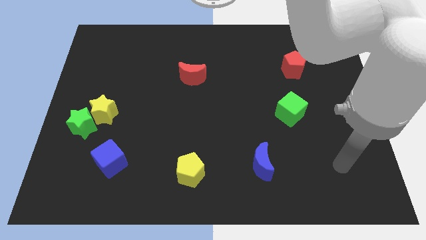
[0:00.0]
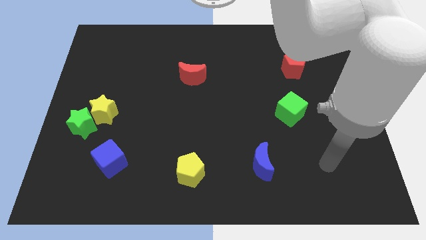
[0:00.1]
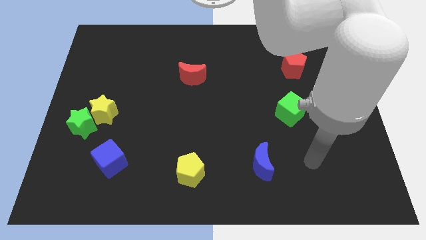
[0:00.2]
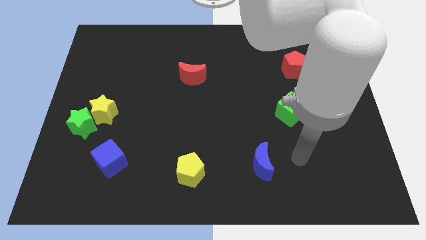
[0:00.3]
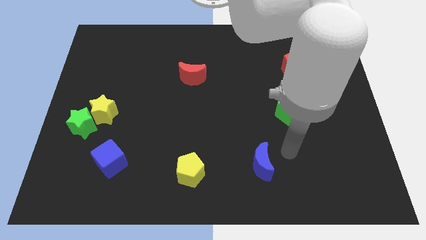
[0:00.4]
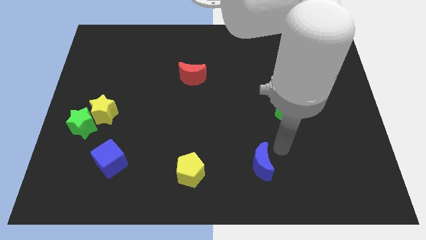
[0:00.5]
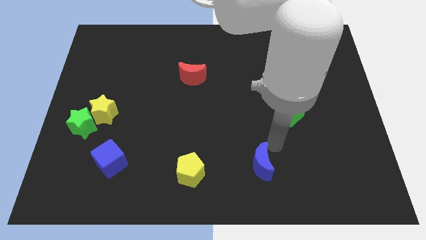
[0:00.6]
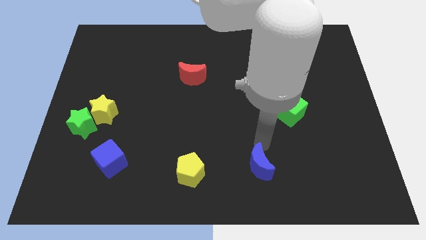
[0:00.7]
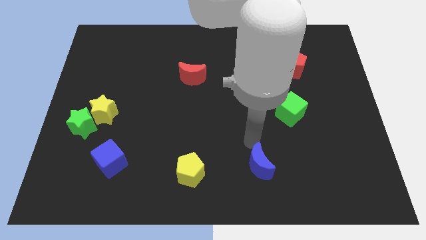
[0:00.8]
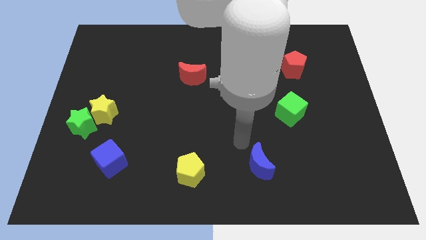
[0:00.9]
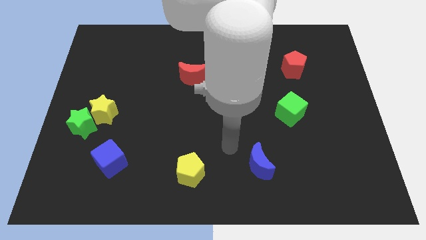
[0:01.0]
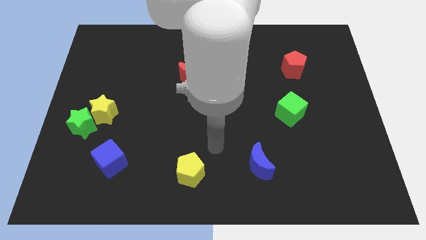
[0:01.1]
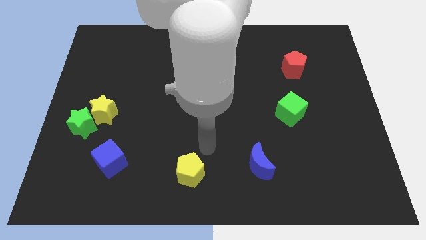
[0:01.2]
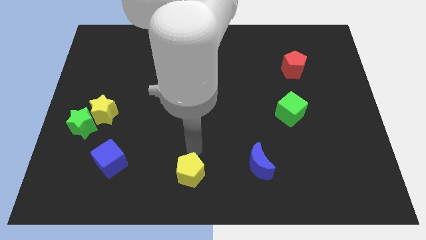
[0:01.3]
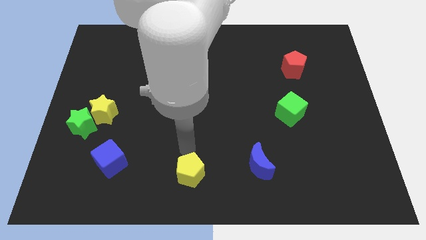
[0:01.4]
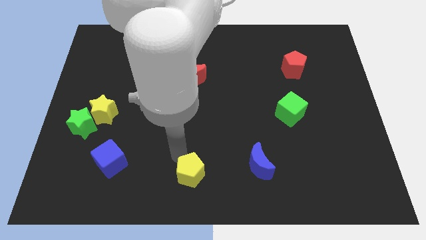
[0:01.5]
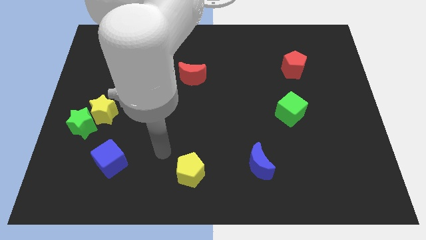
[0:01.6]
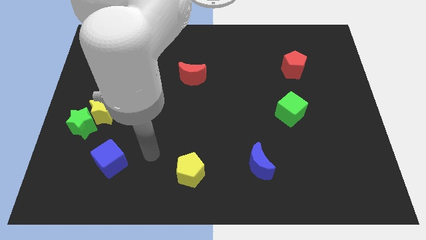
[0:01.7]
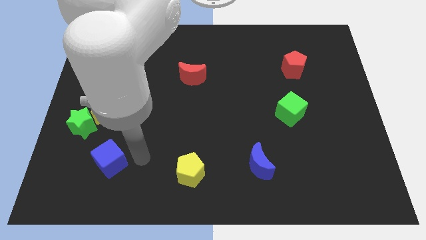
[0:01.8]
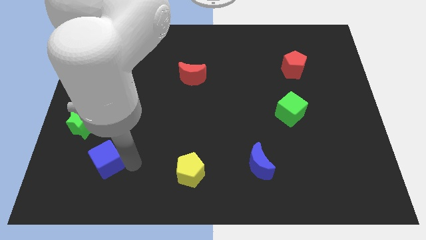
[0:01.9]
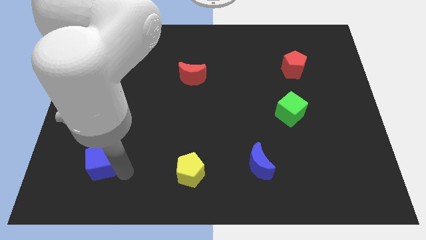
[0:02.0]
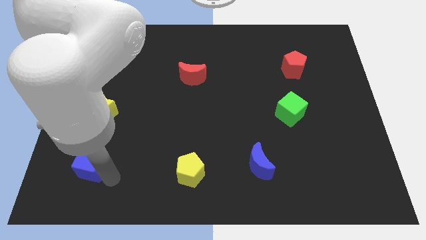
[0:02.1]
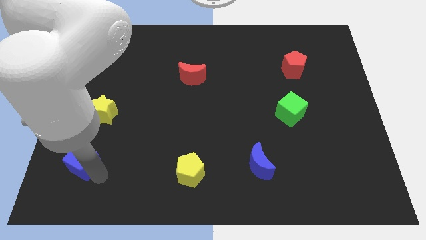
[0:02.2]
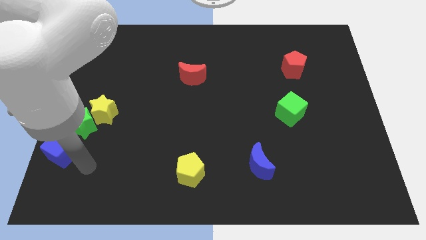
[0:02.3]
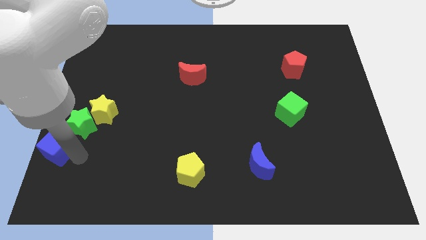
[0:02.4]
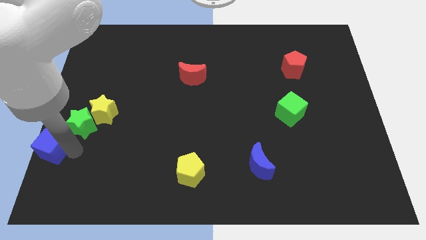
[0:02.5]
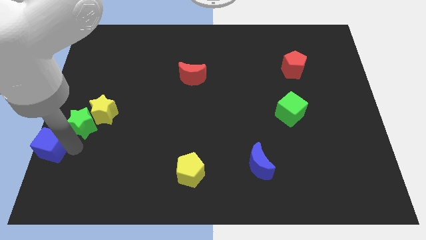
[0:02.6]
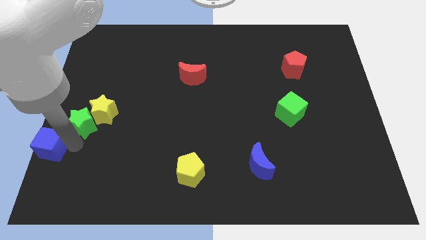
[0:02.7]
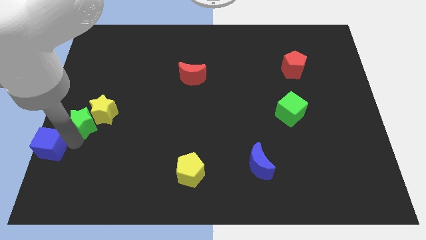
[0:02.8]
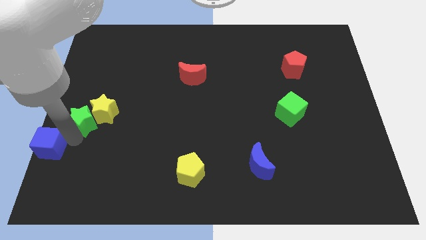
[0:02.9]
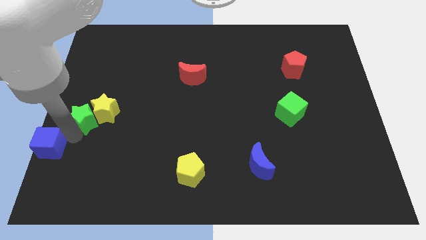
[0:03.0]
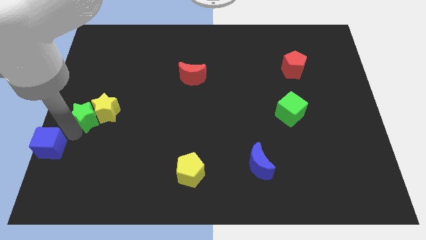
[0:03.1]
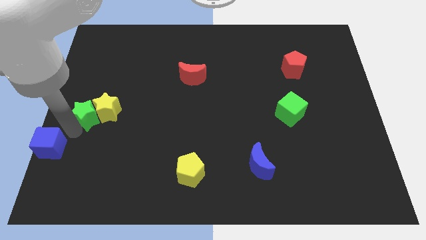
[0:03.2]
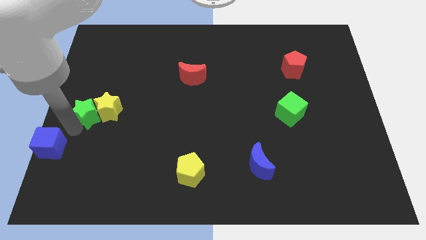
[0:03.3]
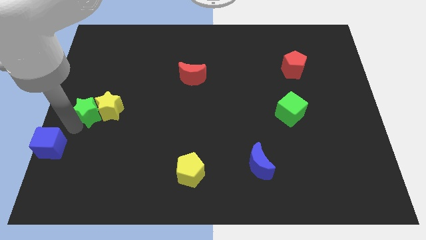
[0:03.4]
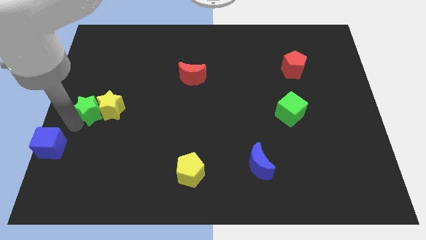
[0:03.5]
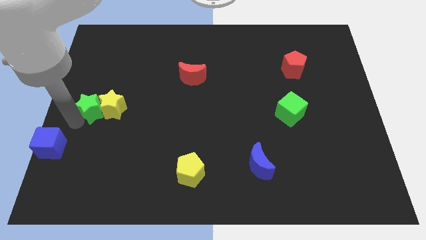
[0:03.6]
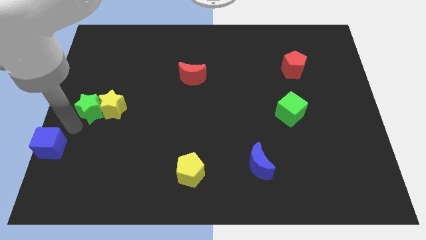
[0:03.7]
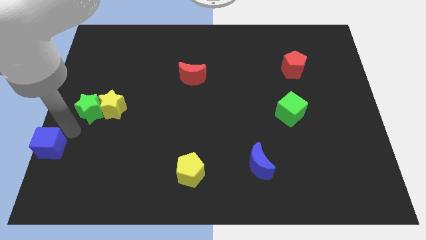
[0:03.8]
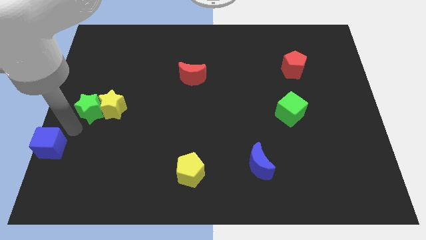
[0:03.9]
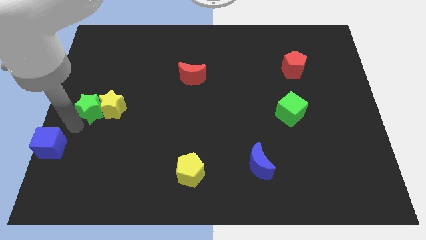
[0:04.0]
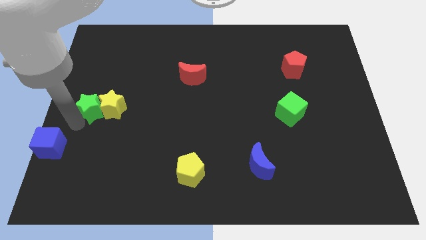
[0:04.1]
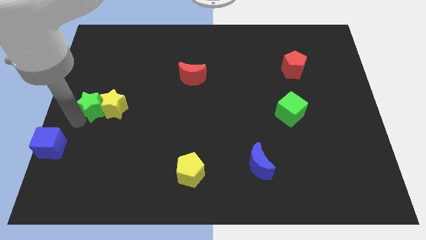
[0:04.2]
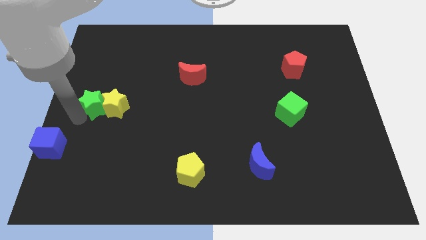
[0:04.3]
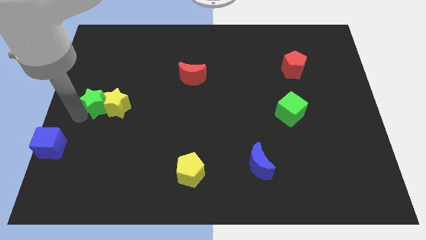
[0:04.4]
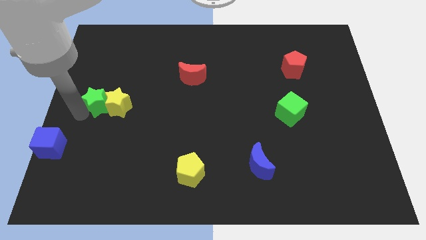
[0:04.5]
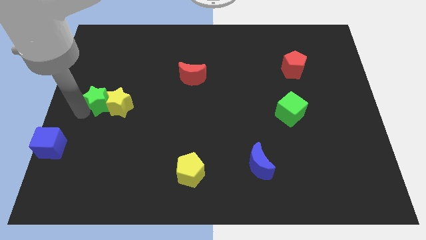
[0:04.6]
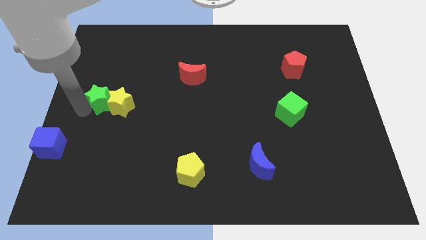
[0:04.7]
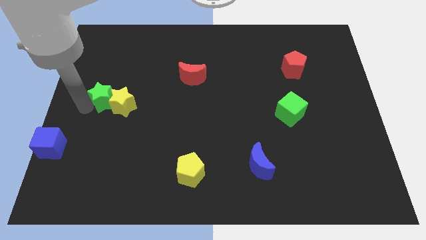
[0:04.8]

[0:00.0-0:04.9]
move the green star slightly up and then right

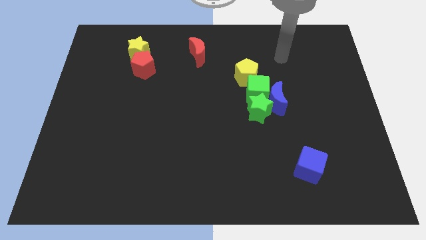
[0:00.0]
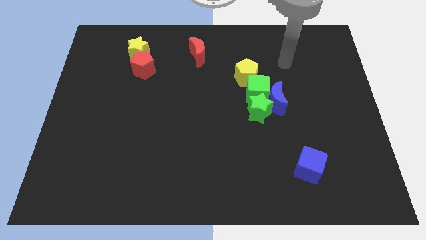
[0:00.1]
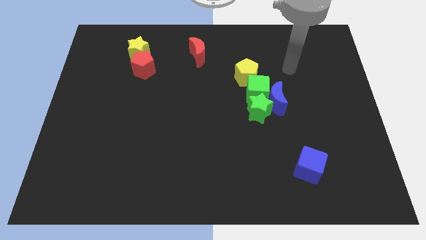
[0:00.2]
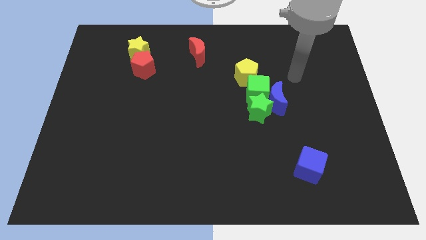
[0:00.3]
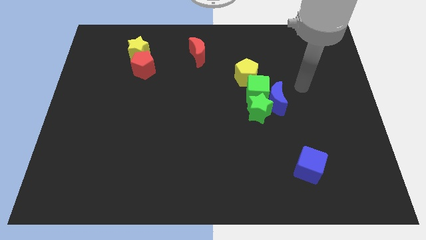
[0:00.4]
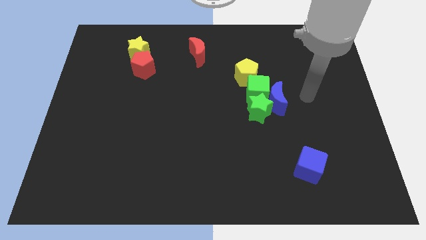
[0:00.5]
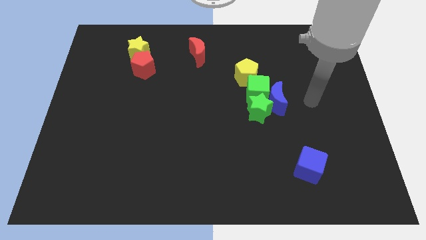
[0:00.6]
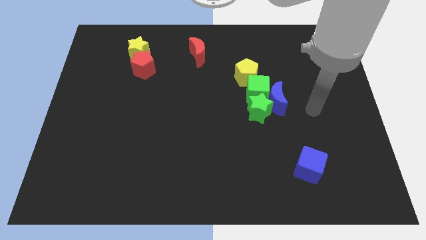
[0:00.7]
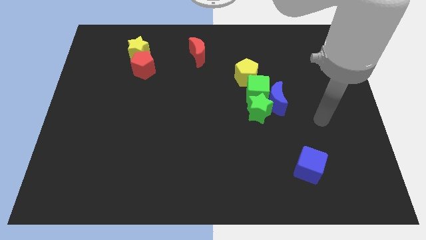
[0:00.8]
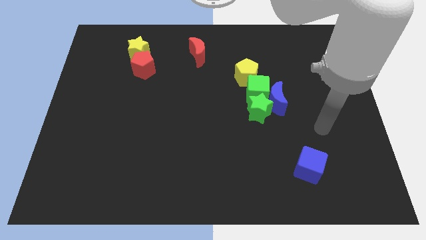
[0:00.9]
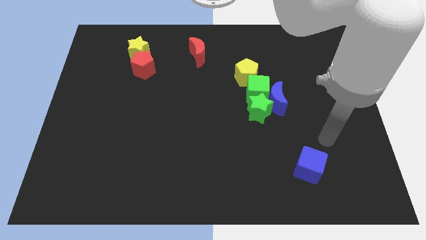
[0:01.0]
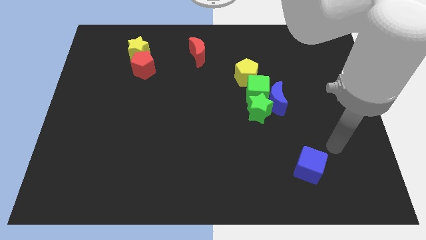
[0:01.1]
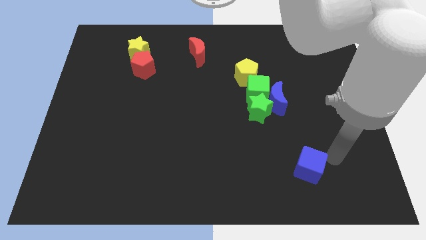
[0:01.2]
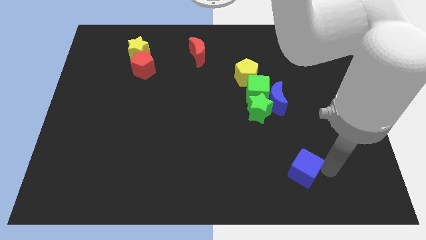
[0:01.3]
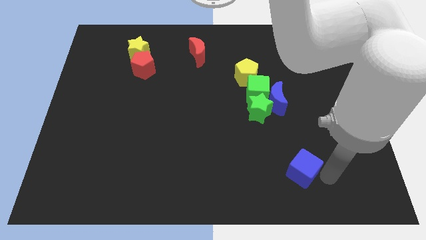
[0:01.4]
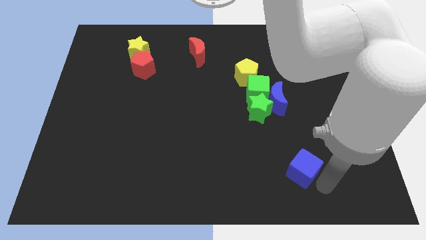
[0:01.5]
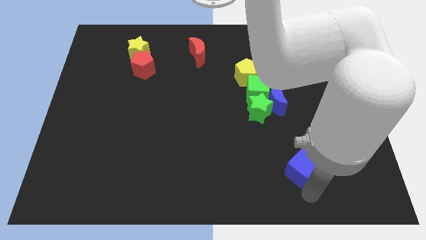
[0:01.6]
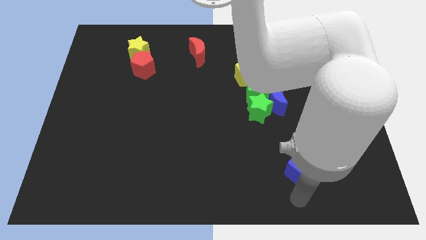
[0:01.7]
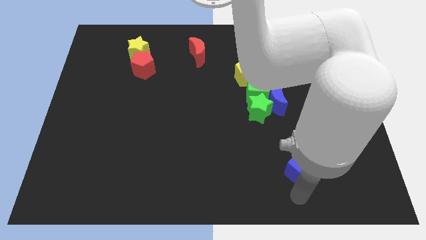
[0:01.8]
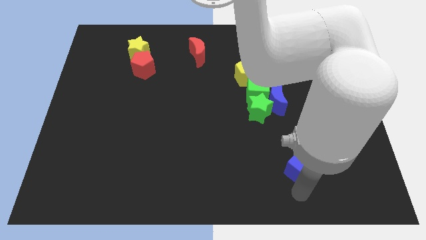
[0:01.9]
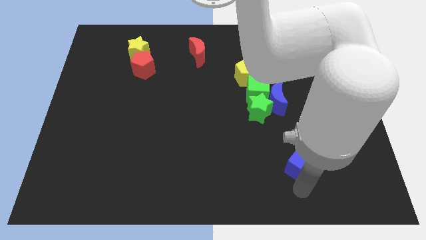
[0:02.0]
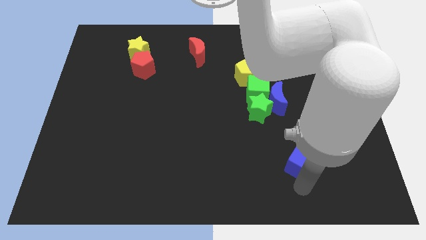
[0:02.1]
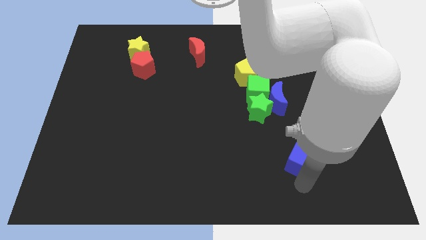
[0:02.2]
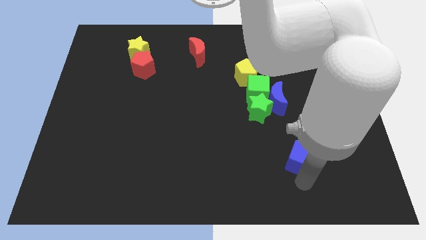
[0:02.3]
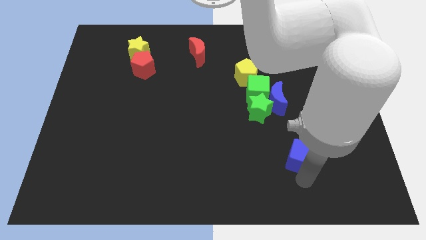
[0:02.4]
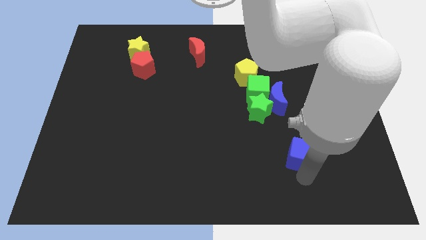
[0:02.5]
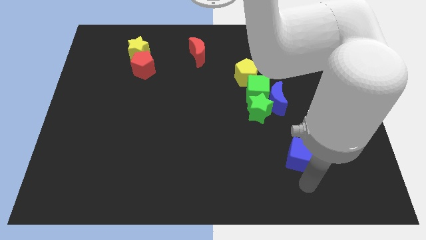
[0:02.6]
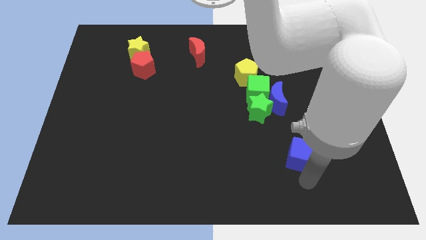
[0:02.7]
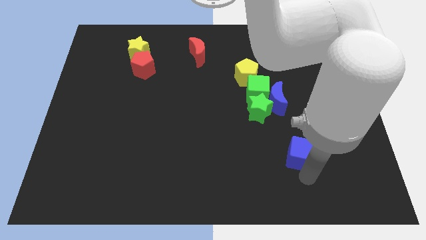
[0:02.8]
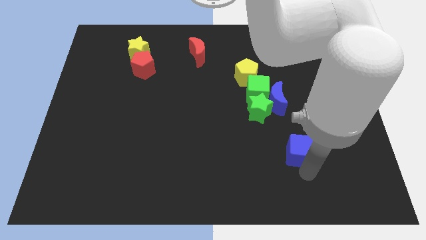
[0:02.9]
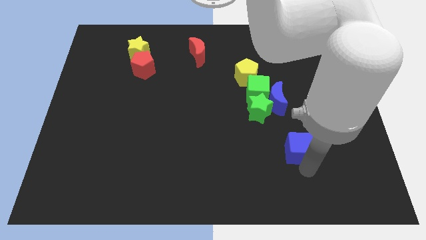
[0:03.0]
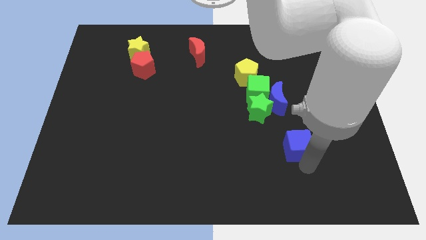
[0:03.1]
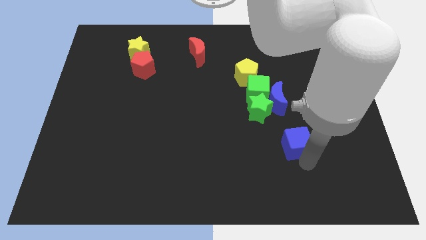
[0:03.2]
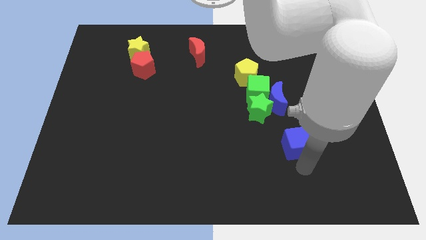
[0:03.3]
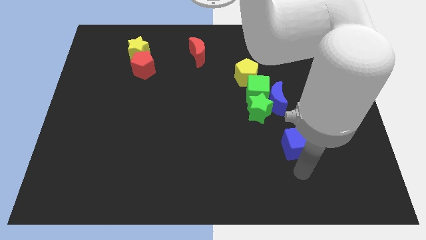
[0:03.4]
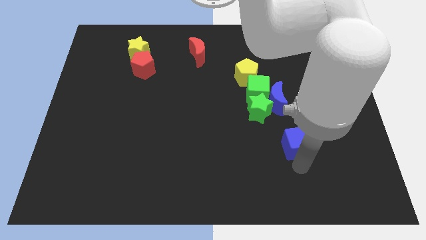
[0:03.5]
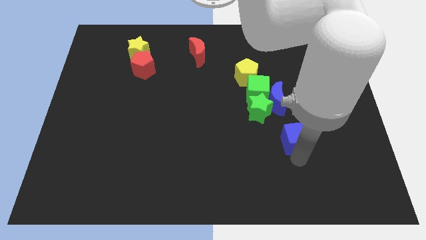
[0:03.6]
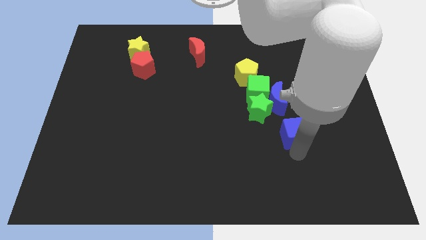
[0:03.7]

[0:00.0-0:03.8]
move the blue cube slightly up
